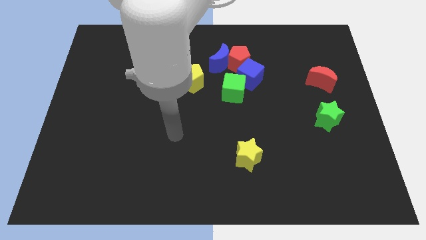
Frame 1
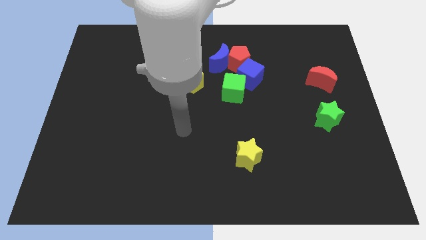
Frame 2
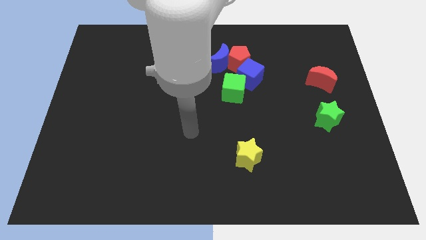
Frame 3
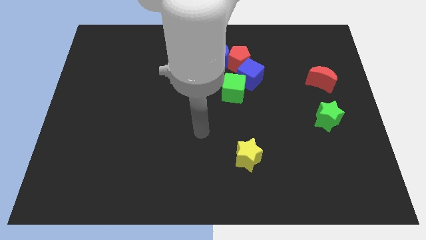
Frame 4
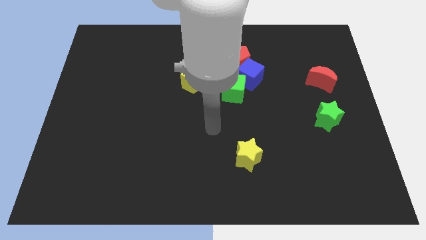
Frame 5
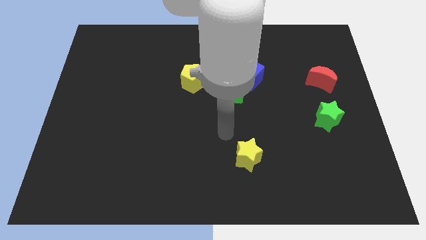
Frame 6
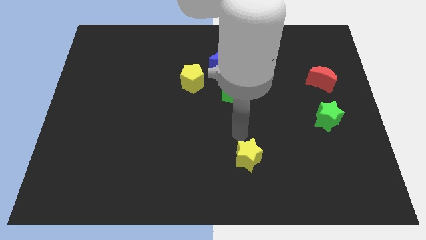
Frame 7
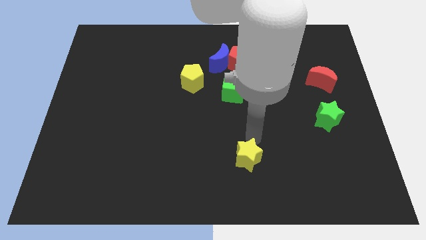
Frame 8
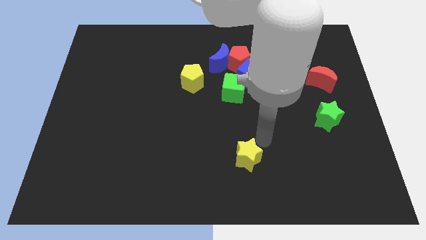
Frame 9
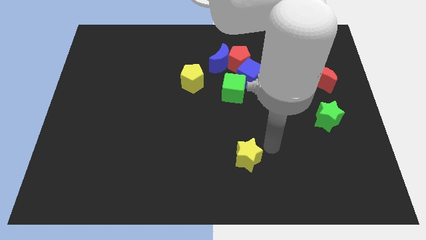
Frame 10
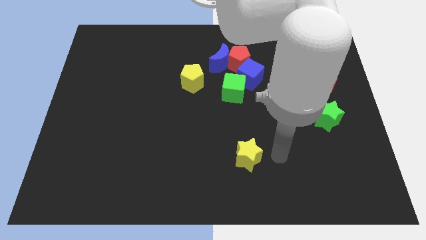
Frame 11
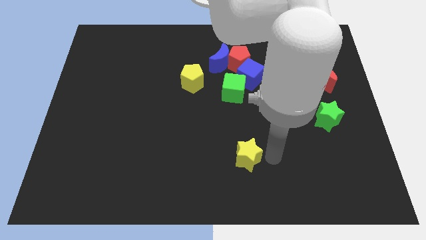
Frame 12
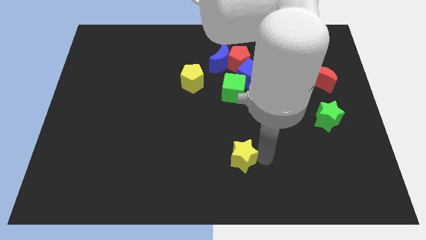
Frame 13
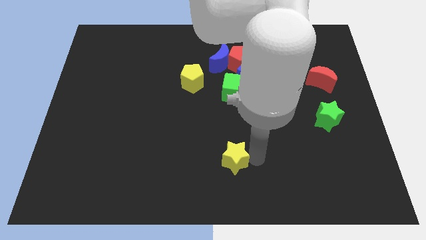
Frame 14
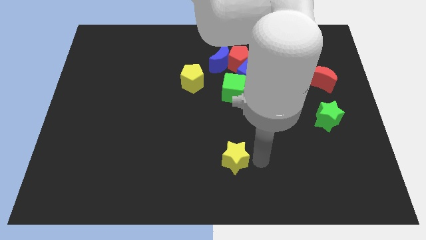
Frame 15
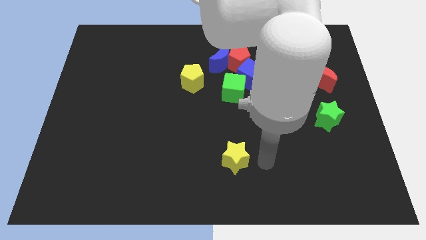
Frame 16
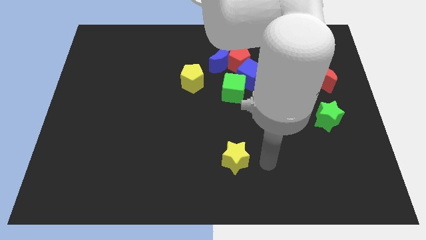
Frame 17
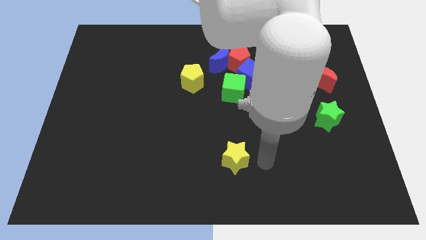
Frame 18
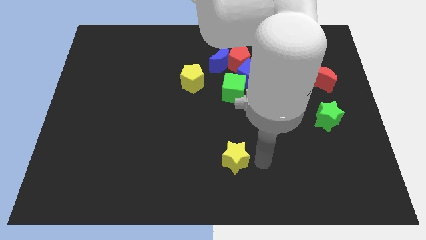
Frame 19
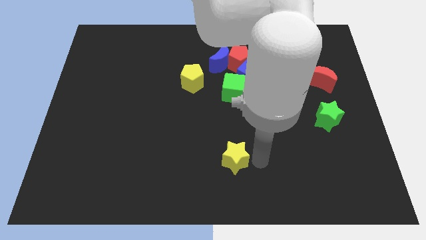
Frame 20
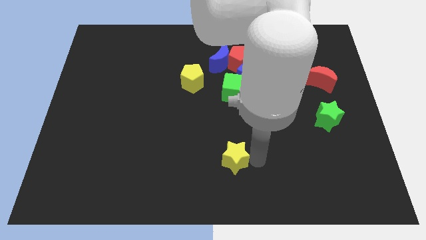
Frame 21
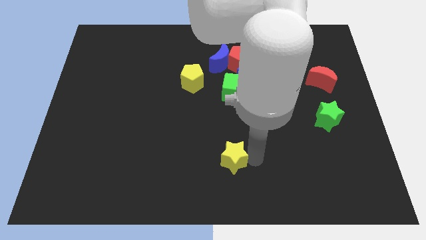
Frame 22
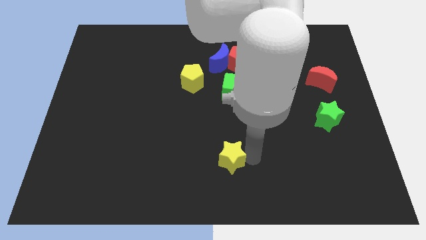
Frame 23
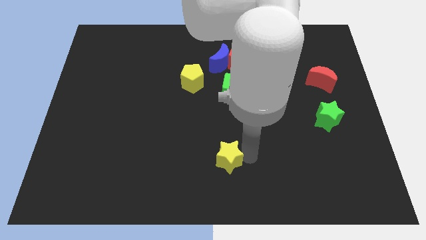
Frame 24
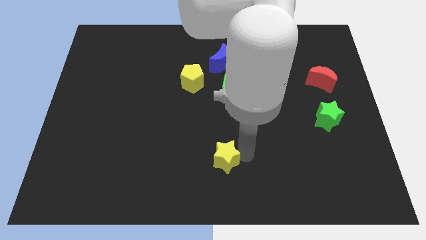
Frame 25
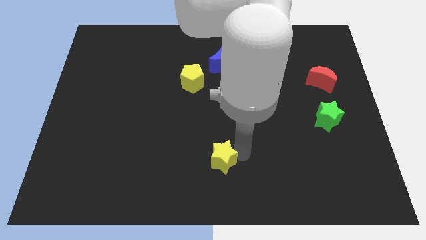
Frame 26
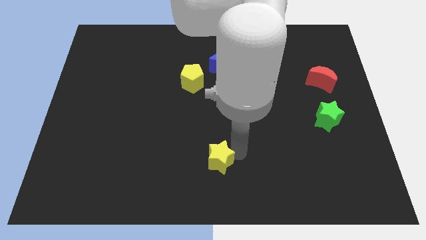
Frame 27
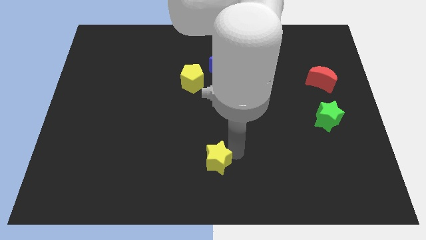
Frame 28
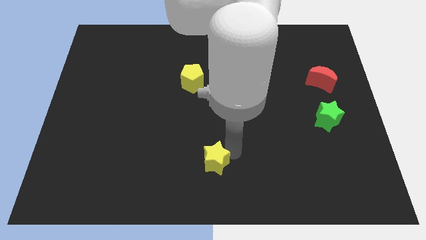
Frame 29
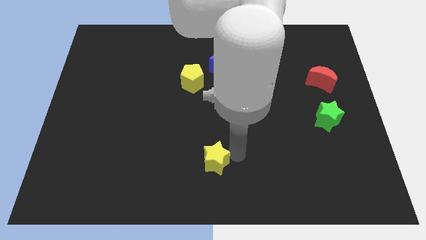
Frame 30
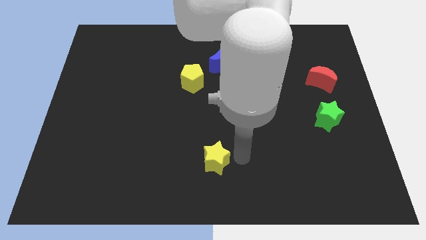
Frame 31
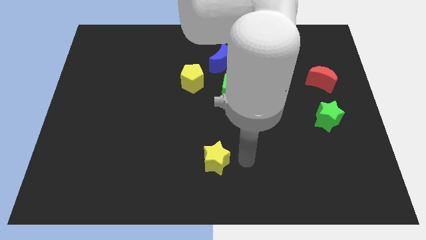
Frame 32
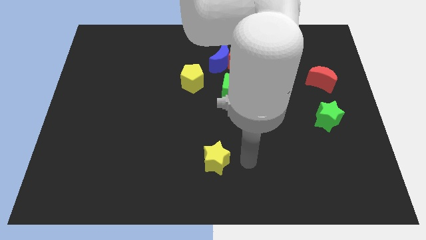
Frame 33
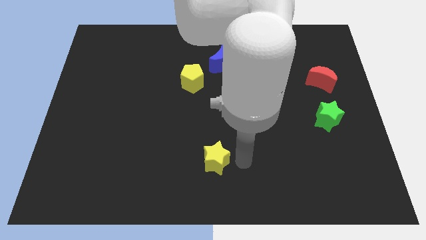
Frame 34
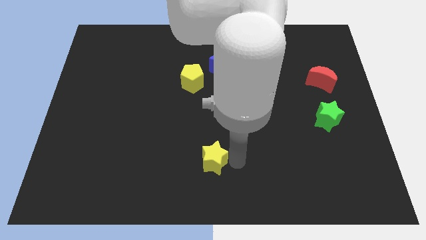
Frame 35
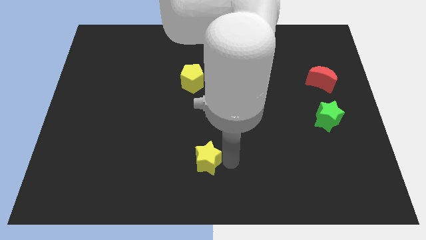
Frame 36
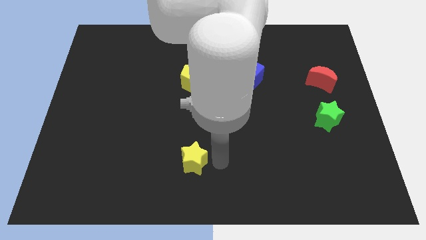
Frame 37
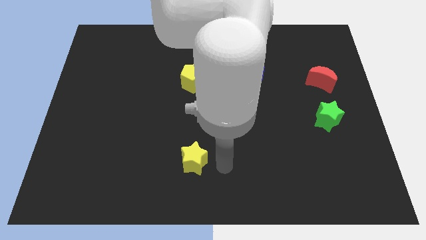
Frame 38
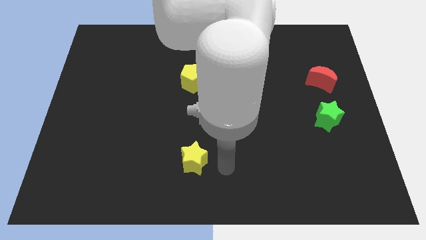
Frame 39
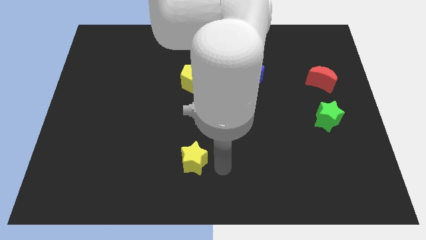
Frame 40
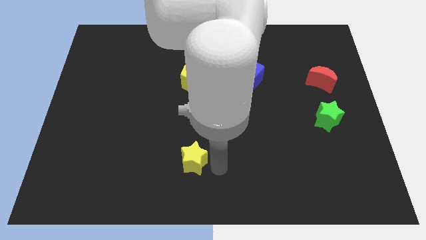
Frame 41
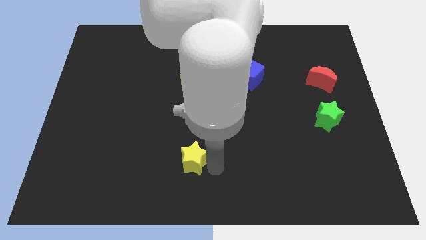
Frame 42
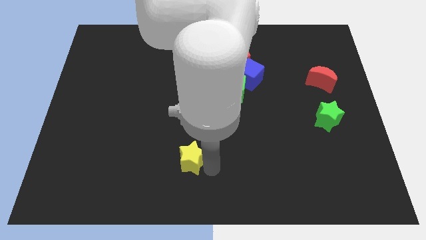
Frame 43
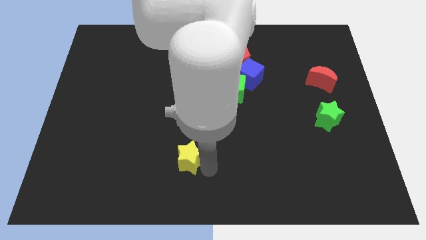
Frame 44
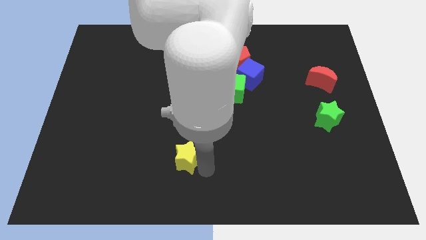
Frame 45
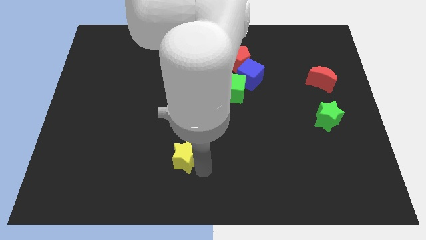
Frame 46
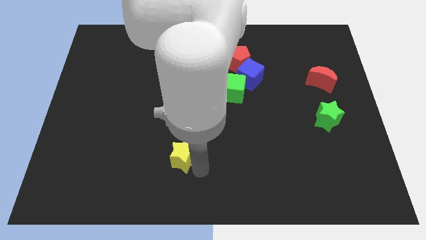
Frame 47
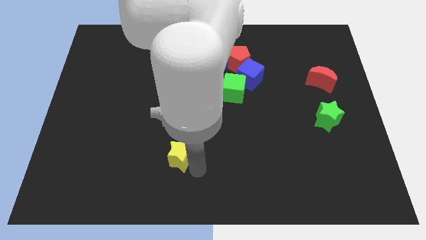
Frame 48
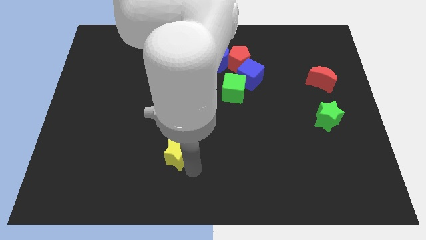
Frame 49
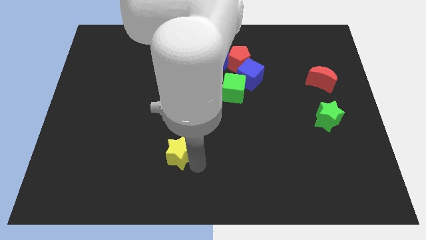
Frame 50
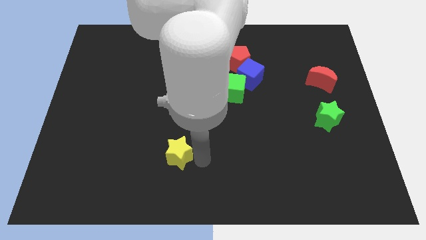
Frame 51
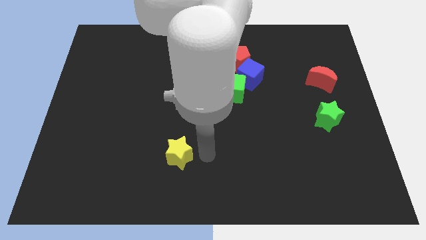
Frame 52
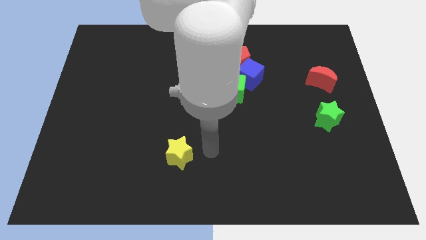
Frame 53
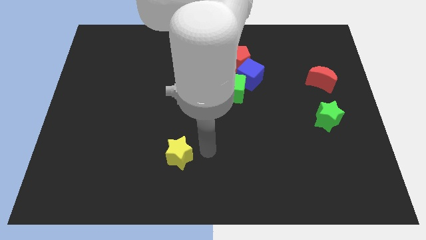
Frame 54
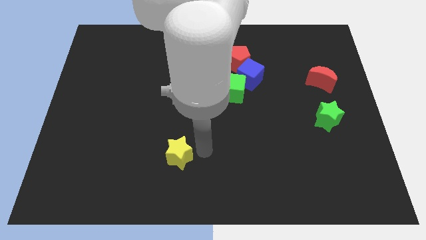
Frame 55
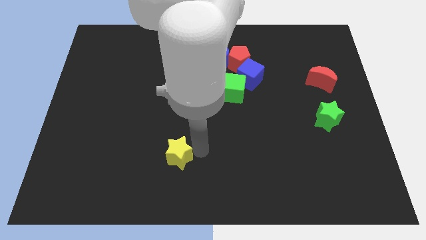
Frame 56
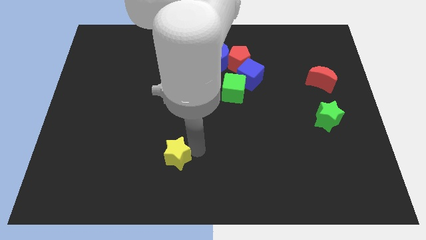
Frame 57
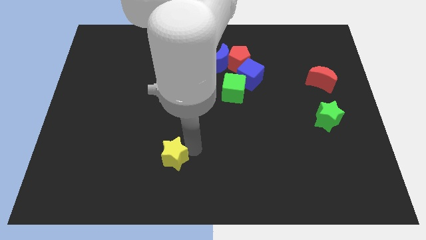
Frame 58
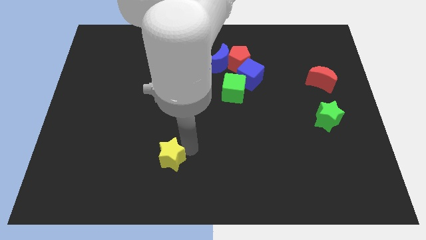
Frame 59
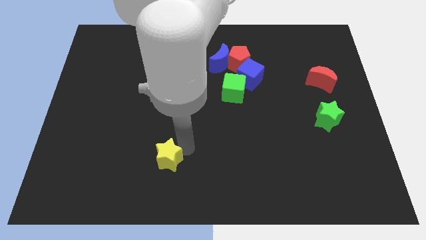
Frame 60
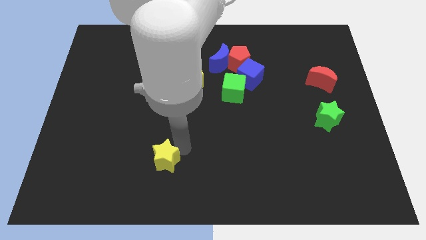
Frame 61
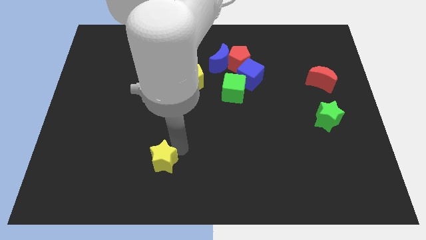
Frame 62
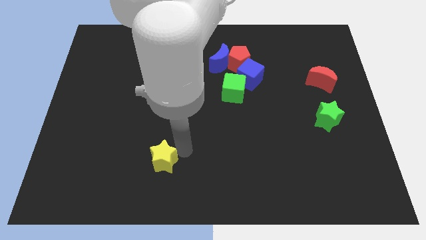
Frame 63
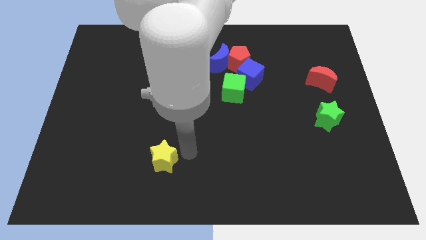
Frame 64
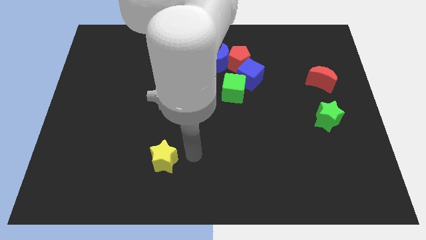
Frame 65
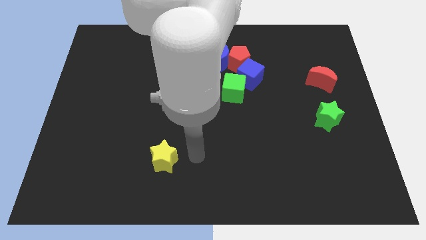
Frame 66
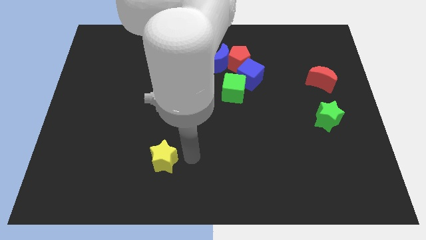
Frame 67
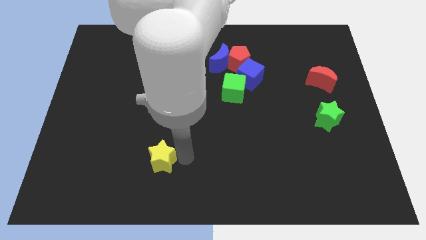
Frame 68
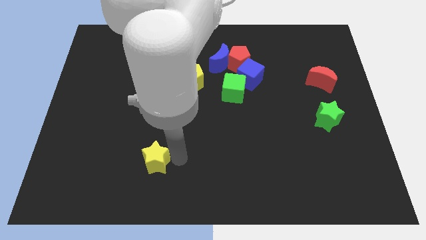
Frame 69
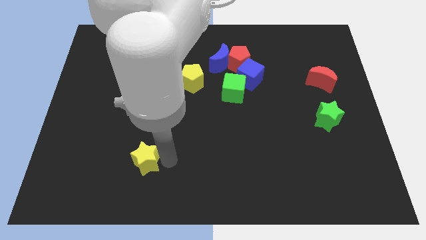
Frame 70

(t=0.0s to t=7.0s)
move the yellow star to the left

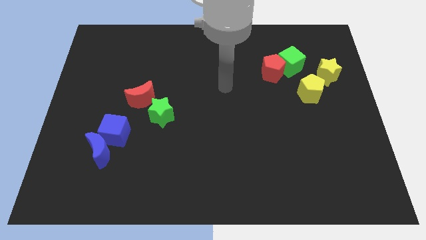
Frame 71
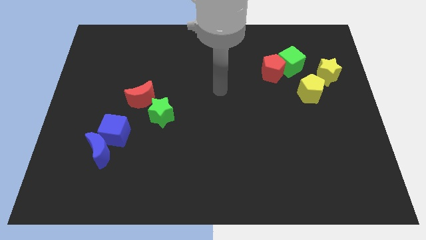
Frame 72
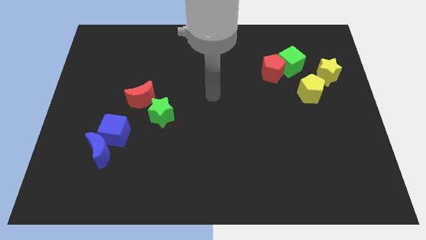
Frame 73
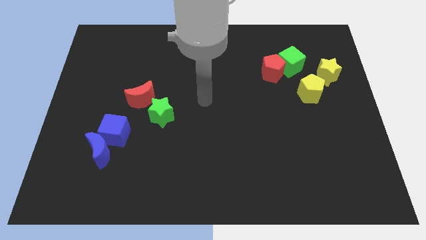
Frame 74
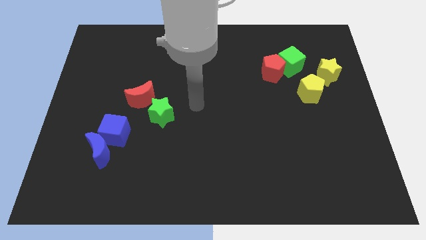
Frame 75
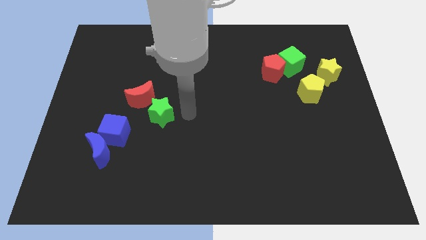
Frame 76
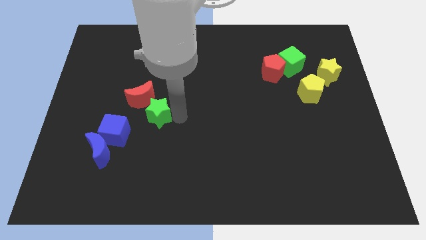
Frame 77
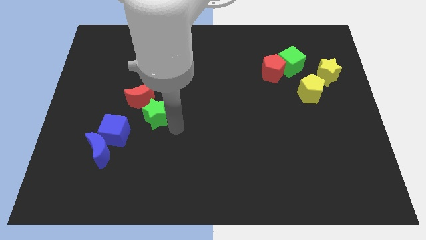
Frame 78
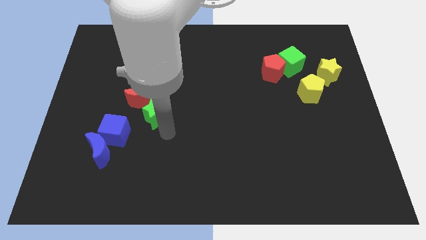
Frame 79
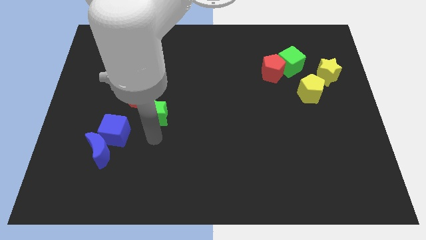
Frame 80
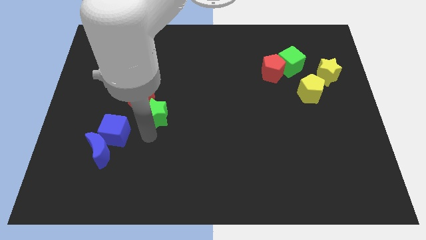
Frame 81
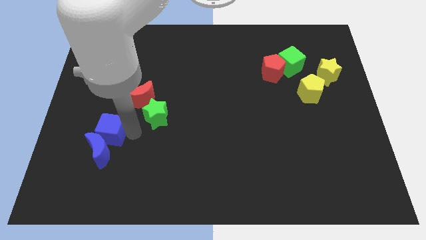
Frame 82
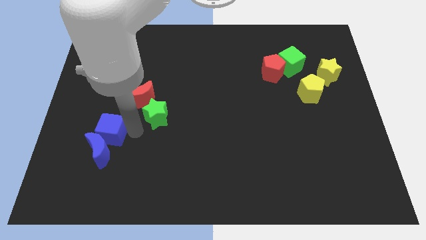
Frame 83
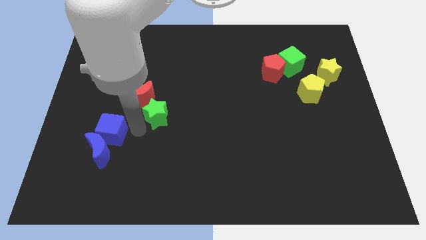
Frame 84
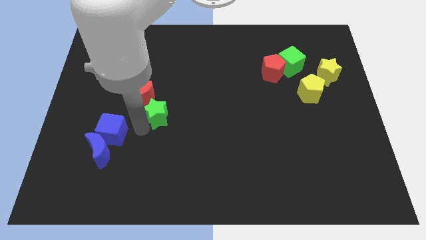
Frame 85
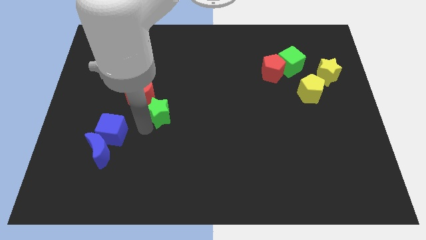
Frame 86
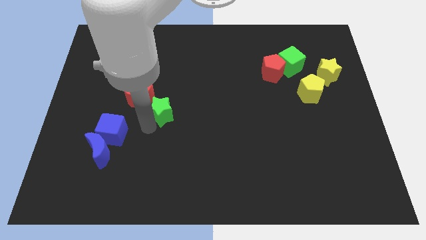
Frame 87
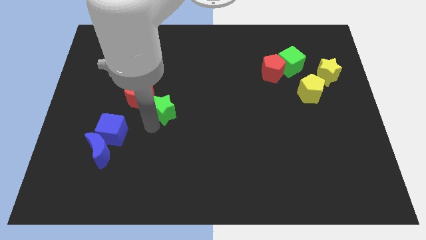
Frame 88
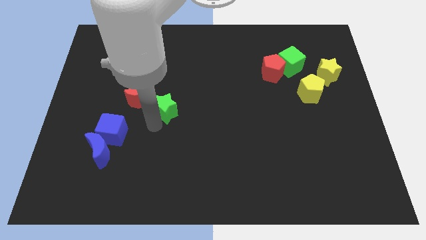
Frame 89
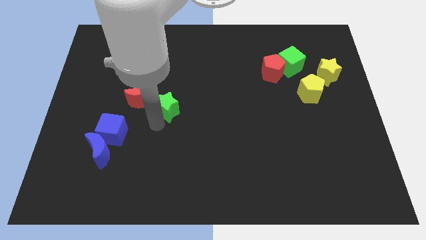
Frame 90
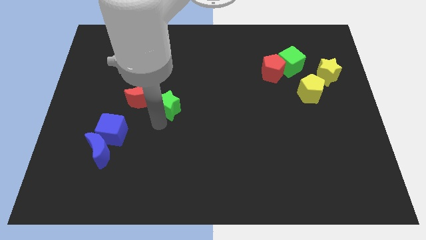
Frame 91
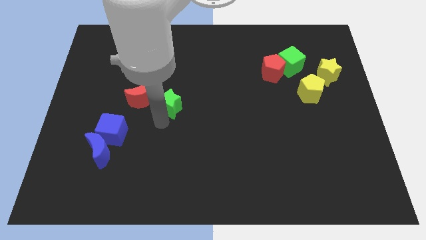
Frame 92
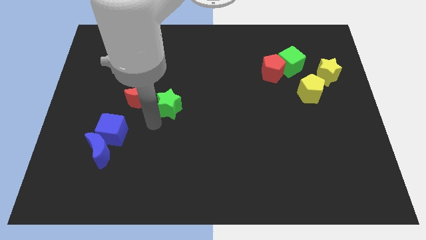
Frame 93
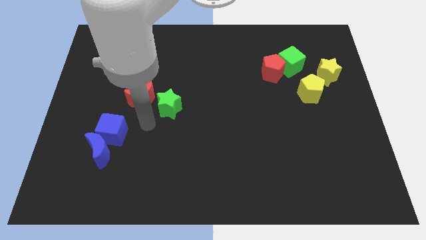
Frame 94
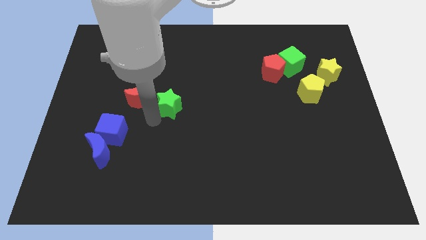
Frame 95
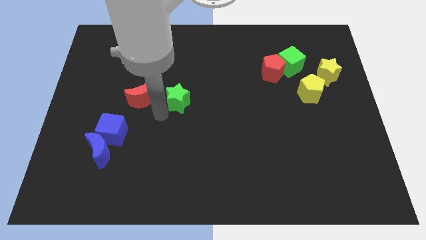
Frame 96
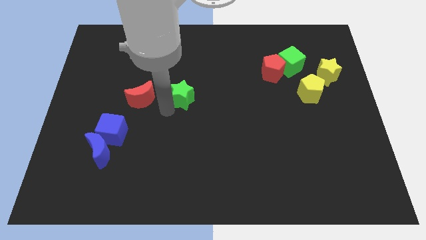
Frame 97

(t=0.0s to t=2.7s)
move the green star a bit diagonally up and right
